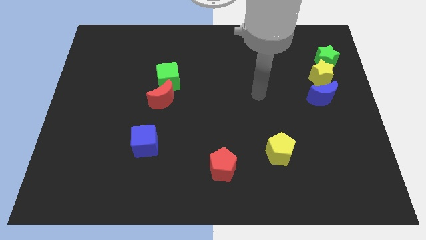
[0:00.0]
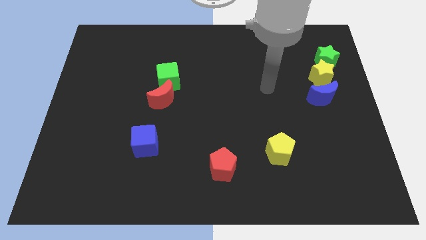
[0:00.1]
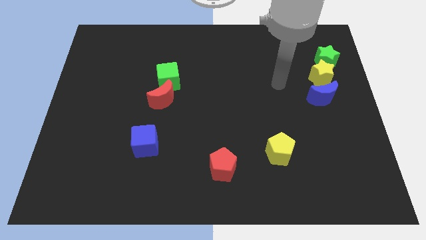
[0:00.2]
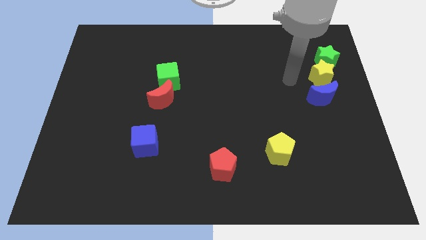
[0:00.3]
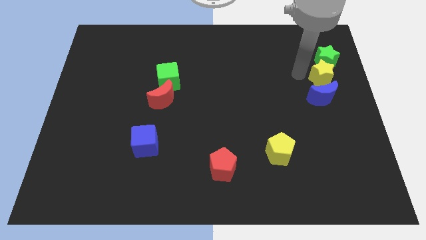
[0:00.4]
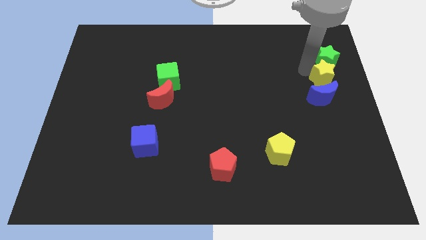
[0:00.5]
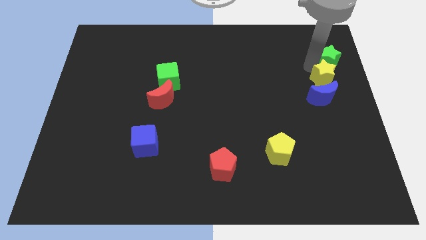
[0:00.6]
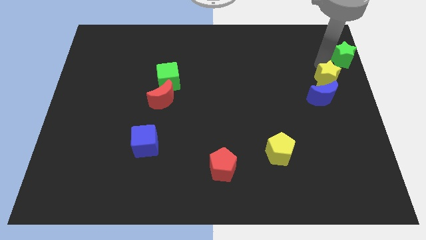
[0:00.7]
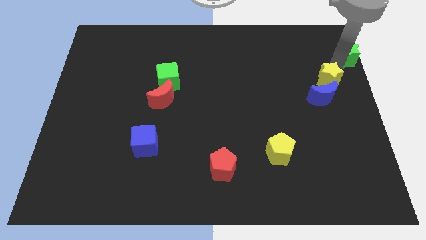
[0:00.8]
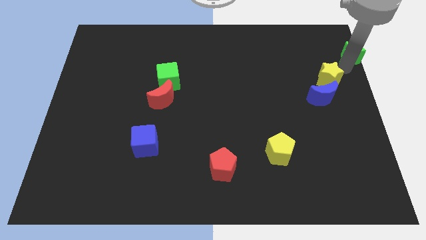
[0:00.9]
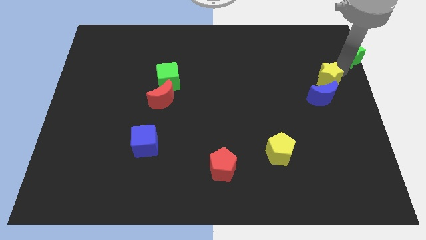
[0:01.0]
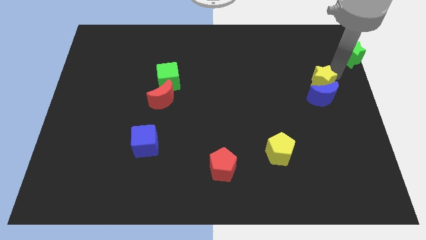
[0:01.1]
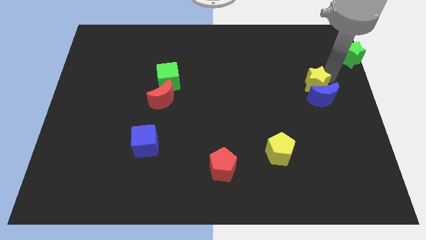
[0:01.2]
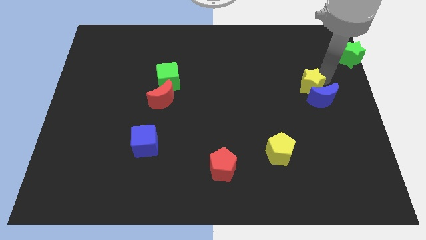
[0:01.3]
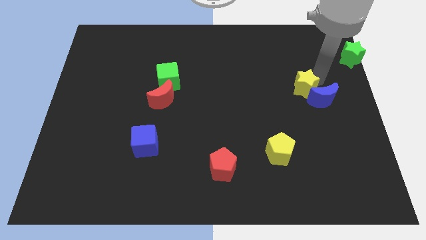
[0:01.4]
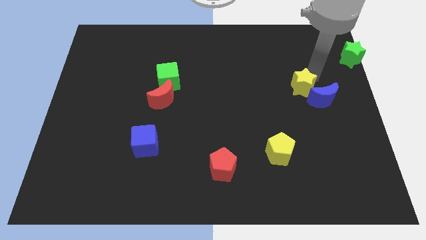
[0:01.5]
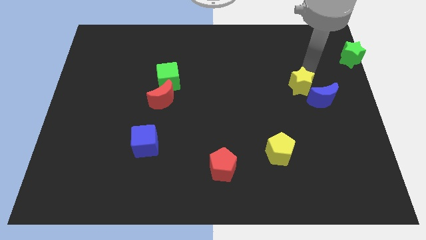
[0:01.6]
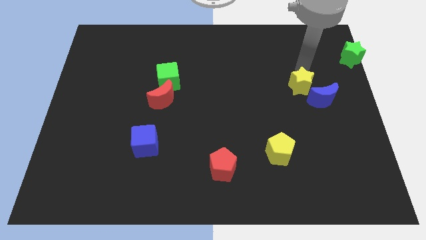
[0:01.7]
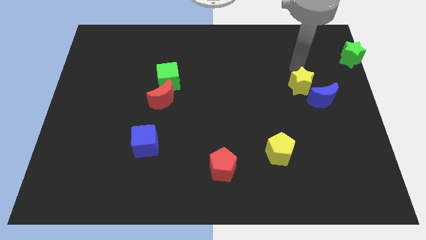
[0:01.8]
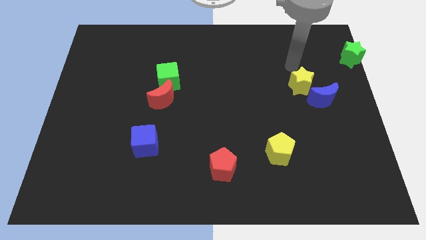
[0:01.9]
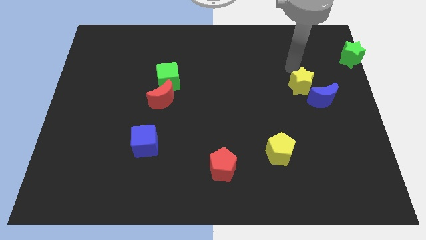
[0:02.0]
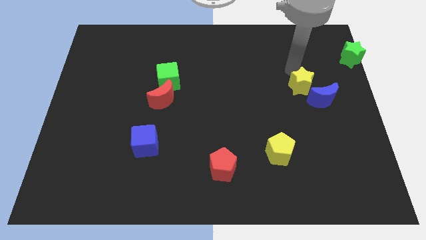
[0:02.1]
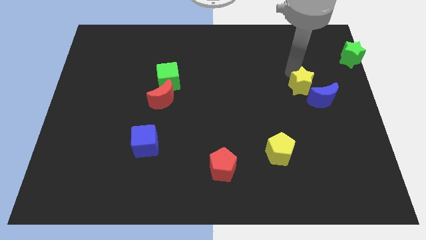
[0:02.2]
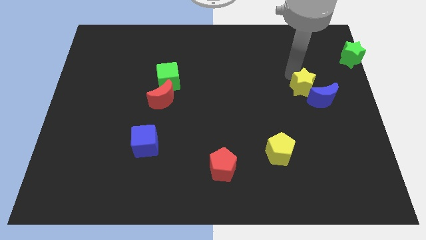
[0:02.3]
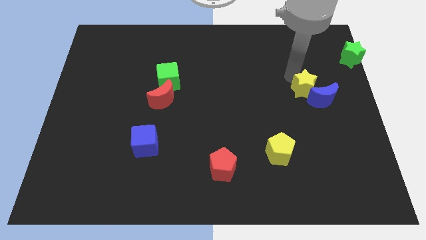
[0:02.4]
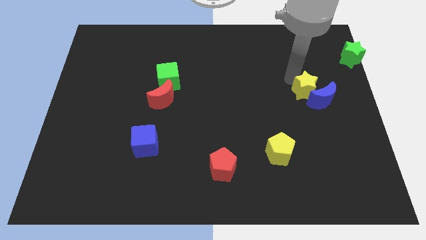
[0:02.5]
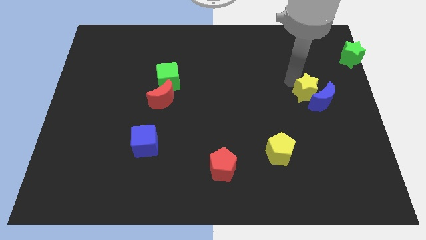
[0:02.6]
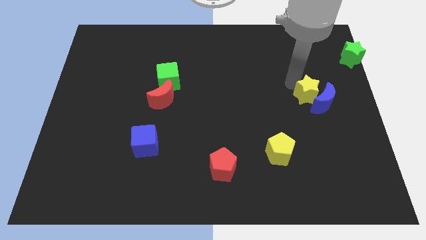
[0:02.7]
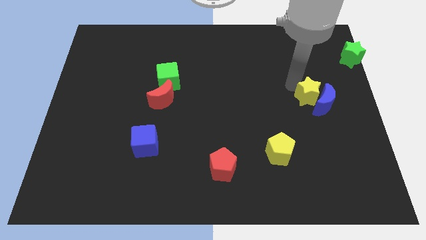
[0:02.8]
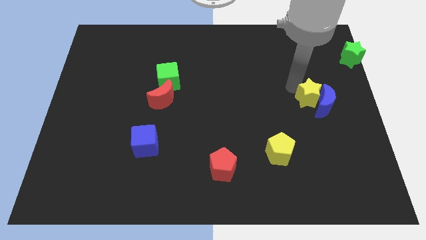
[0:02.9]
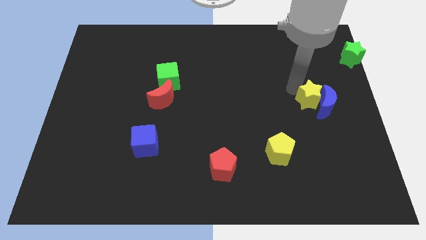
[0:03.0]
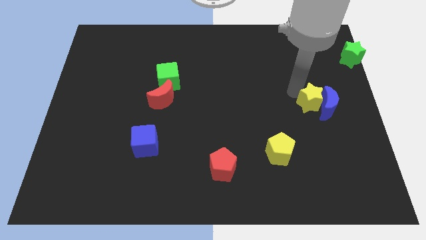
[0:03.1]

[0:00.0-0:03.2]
slide the yellow star slightly downwards

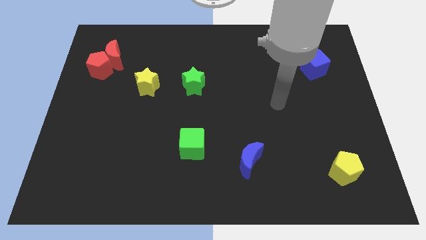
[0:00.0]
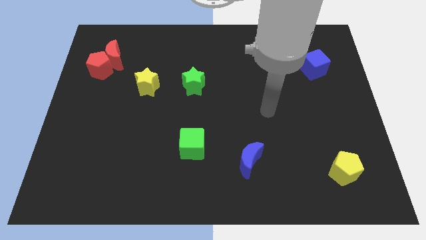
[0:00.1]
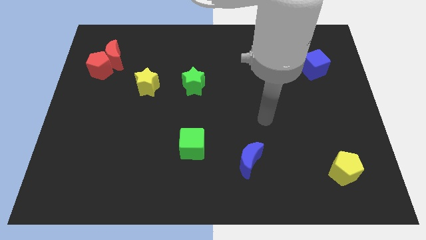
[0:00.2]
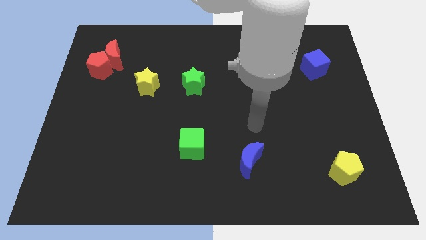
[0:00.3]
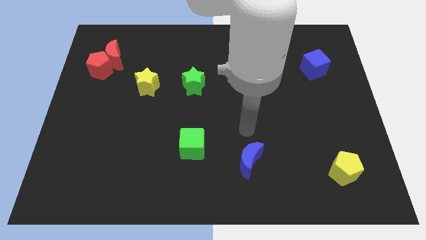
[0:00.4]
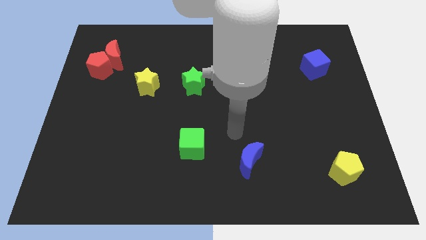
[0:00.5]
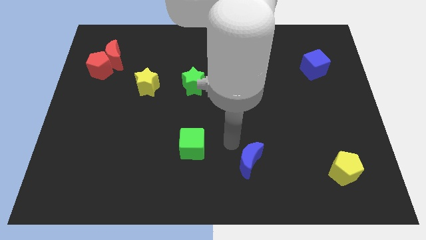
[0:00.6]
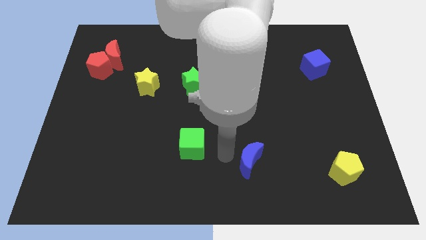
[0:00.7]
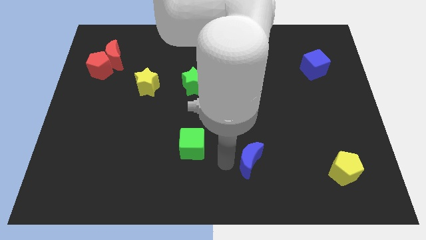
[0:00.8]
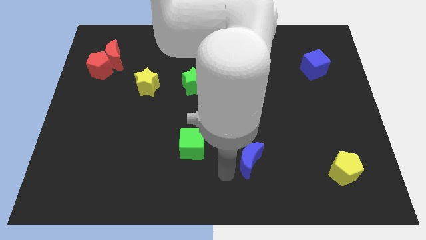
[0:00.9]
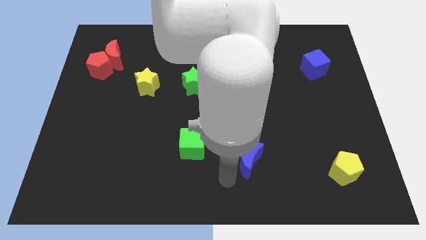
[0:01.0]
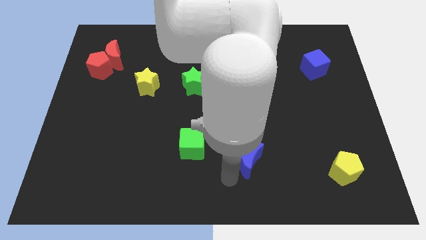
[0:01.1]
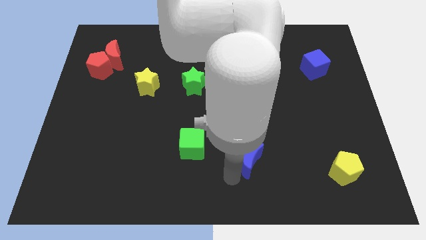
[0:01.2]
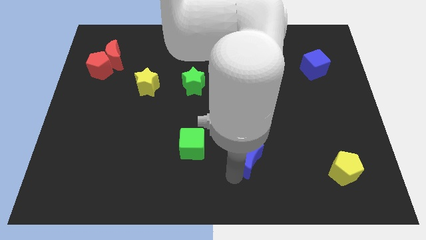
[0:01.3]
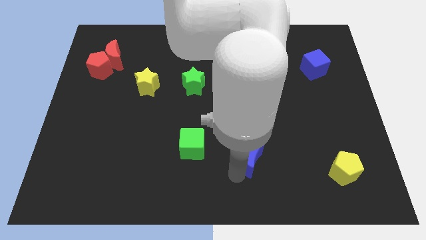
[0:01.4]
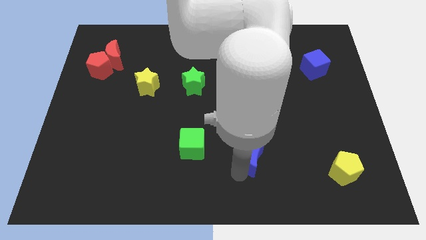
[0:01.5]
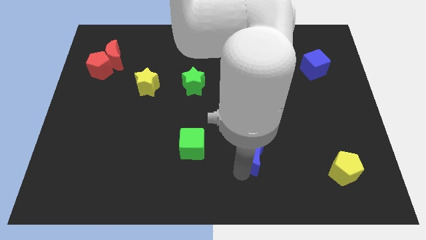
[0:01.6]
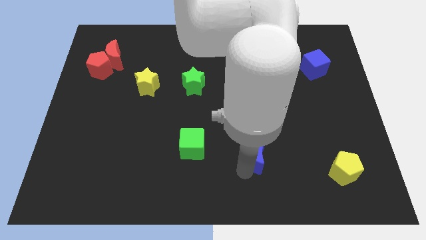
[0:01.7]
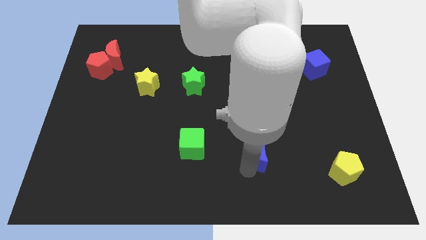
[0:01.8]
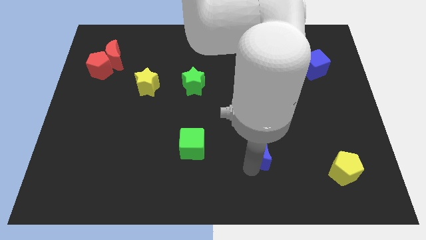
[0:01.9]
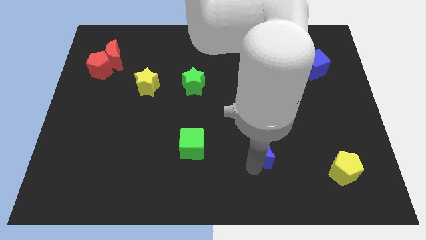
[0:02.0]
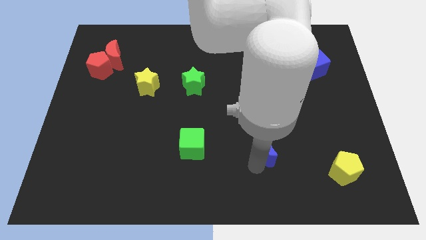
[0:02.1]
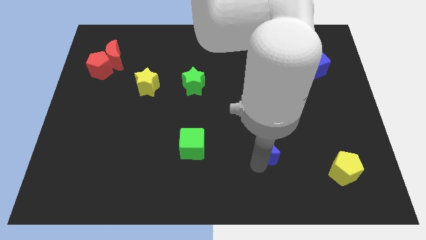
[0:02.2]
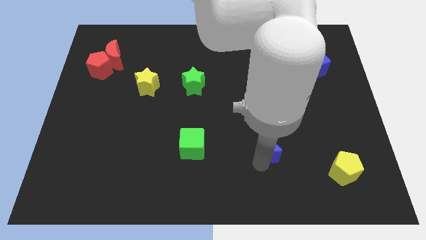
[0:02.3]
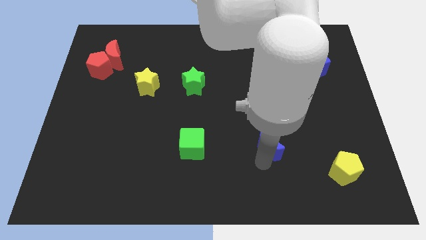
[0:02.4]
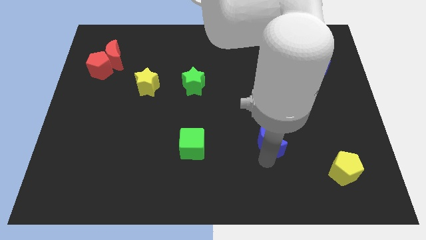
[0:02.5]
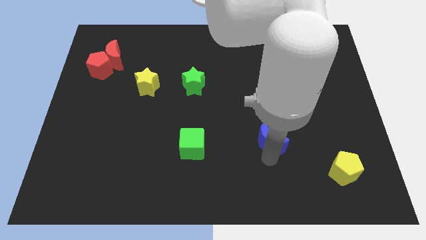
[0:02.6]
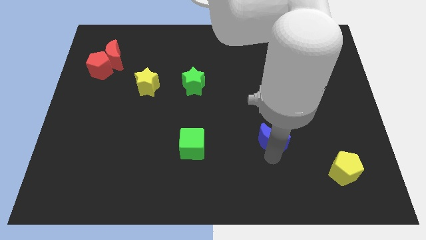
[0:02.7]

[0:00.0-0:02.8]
move the blue moon upwards and then to the right slightly

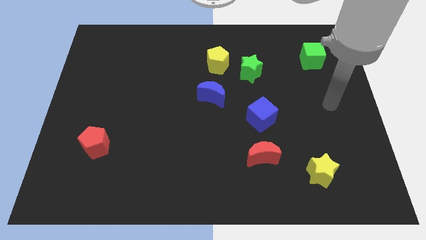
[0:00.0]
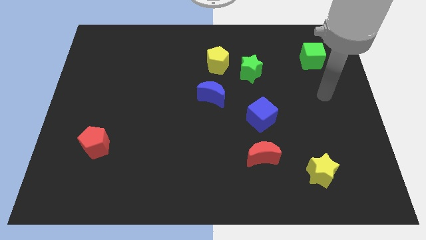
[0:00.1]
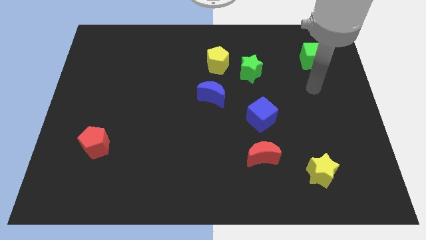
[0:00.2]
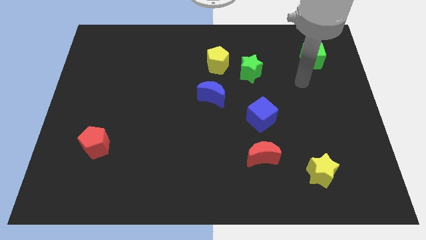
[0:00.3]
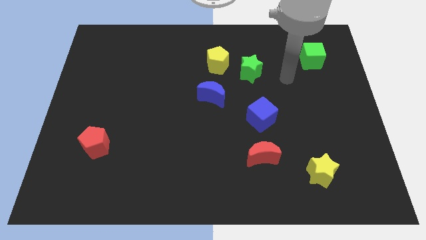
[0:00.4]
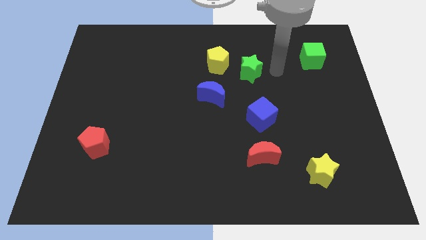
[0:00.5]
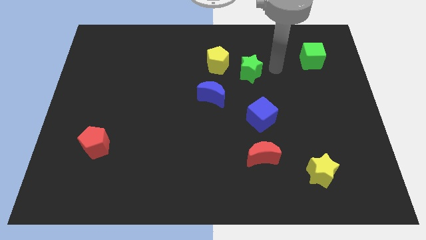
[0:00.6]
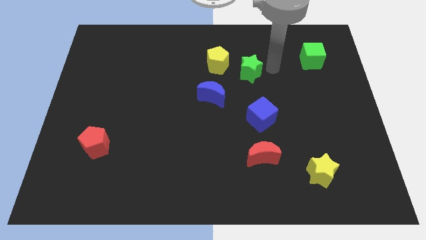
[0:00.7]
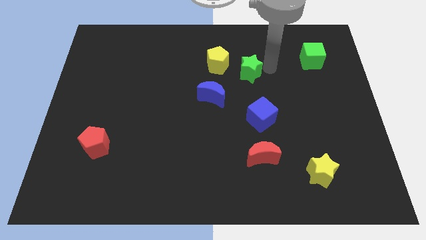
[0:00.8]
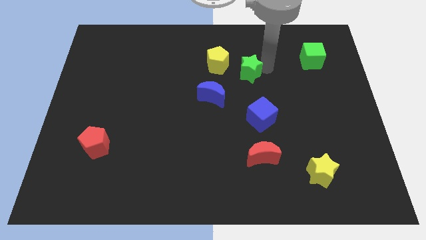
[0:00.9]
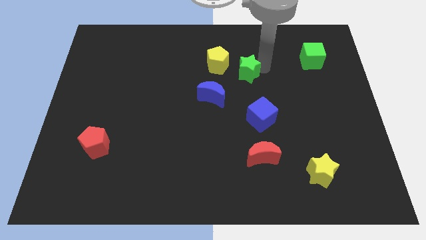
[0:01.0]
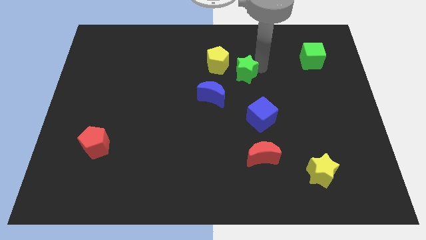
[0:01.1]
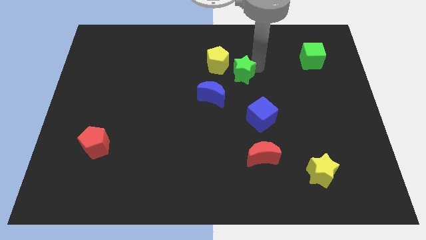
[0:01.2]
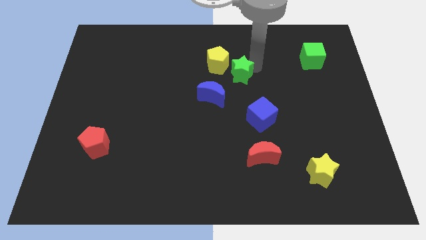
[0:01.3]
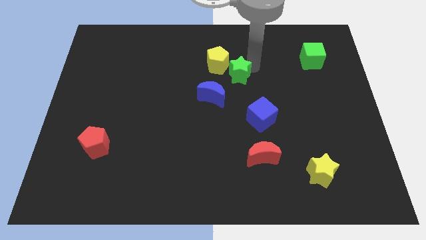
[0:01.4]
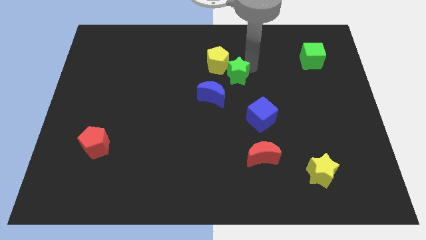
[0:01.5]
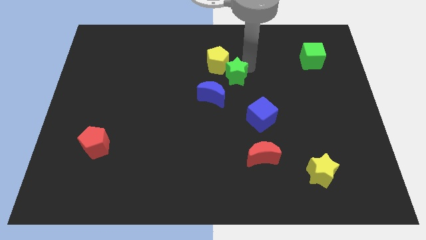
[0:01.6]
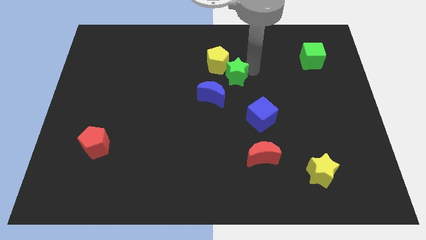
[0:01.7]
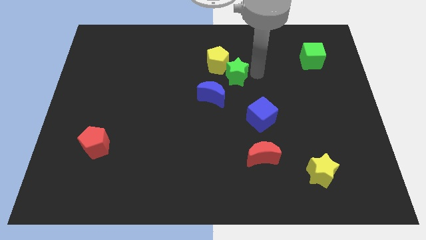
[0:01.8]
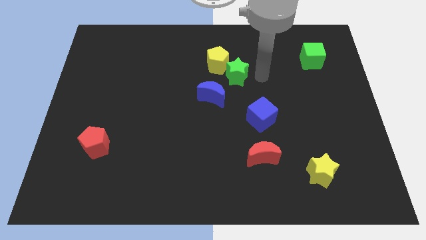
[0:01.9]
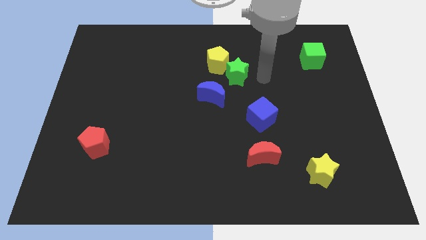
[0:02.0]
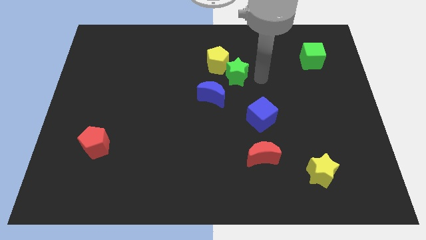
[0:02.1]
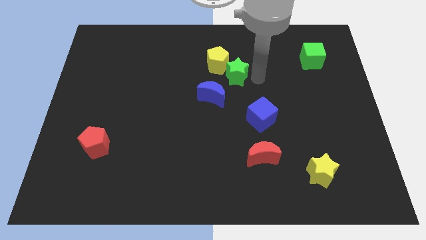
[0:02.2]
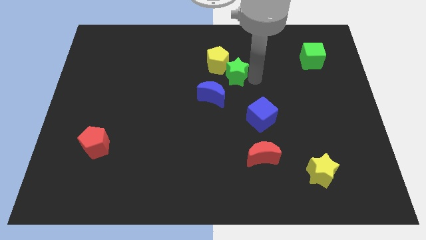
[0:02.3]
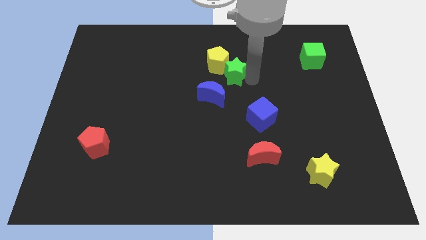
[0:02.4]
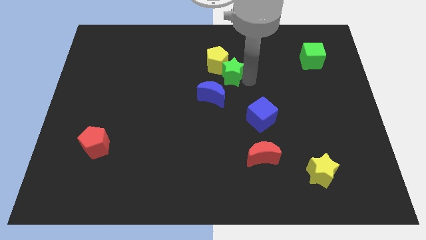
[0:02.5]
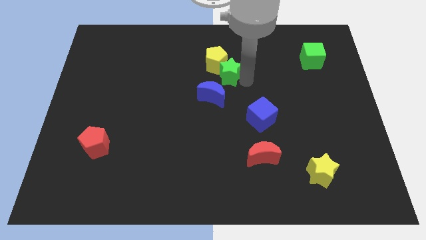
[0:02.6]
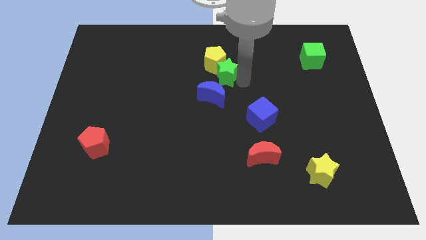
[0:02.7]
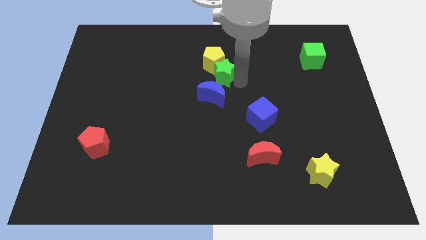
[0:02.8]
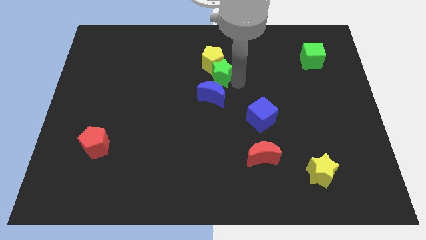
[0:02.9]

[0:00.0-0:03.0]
move the green star somewhat left
